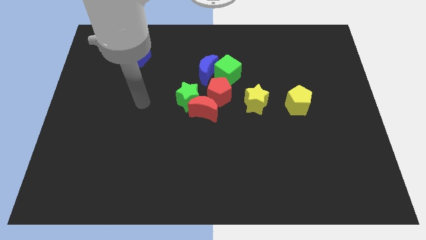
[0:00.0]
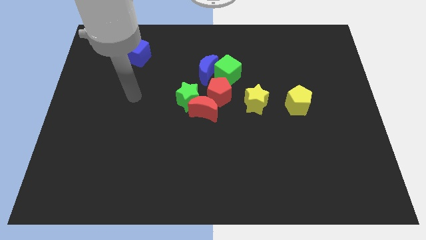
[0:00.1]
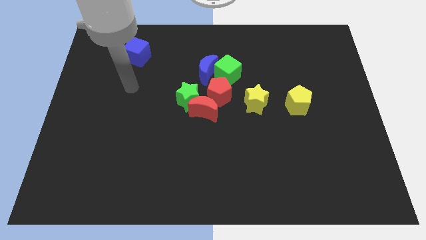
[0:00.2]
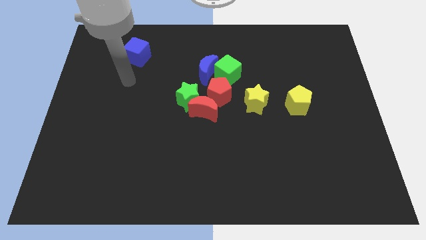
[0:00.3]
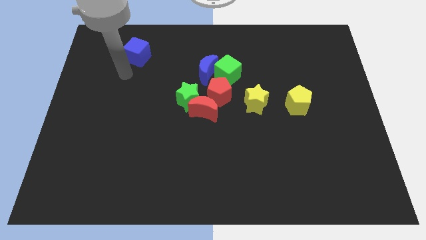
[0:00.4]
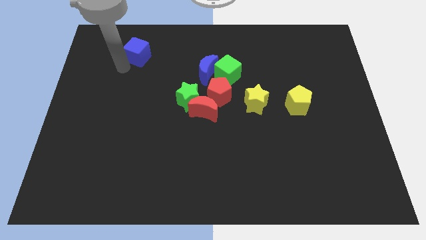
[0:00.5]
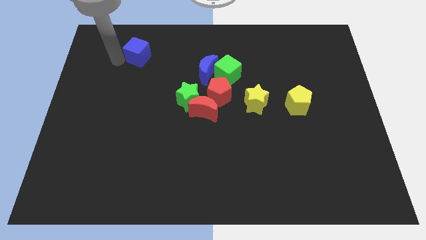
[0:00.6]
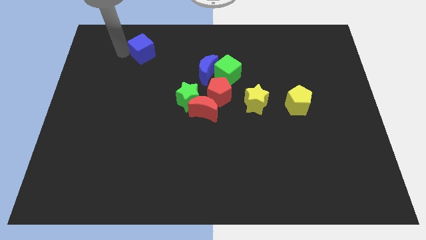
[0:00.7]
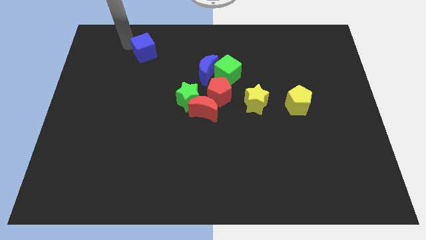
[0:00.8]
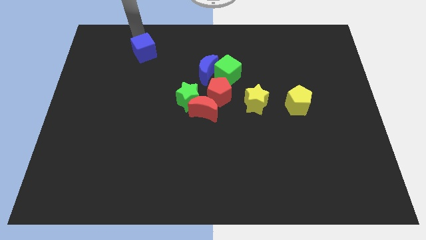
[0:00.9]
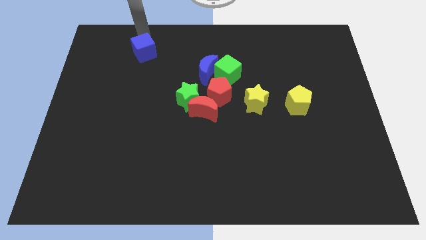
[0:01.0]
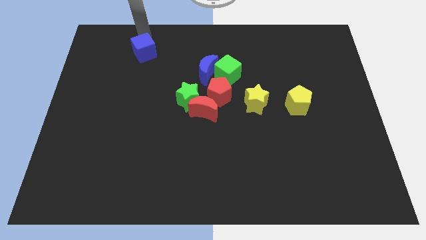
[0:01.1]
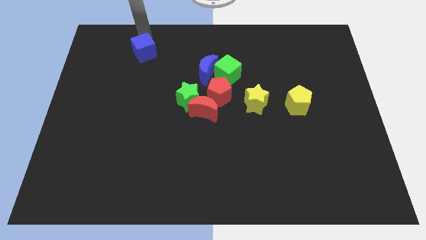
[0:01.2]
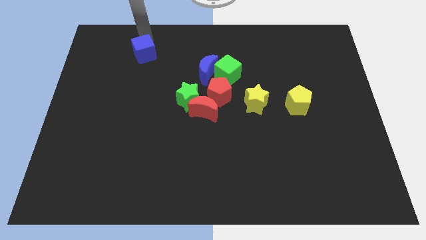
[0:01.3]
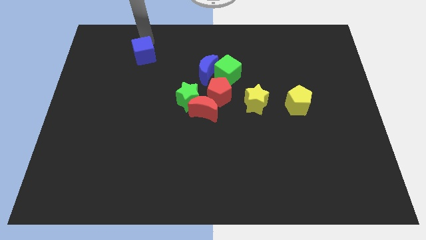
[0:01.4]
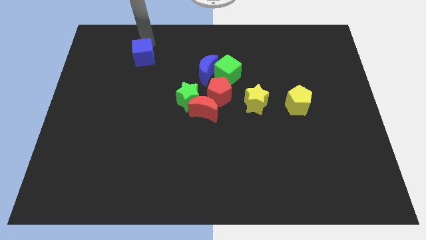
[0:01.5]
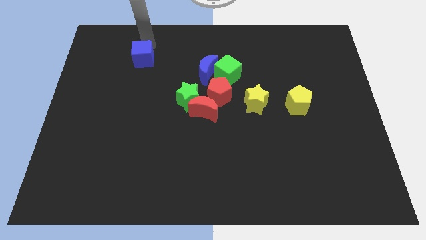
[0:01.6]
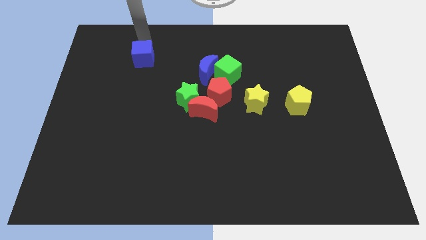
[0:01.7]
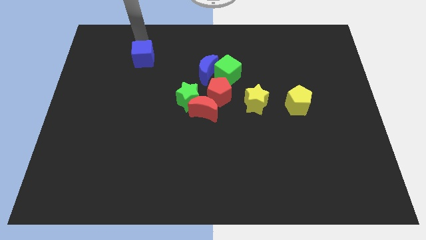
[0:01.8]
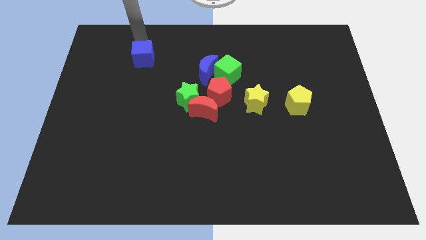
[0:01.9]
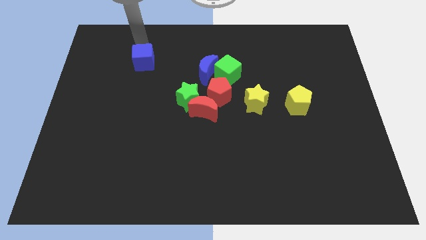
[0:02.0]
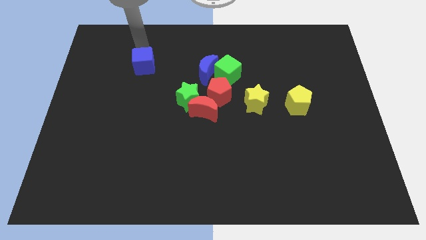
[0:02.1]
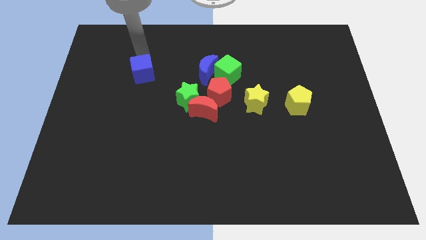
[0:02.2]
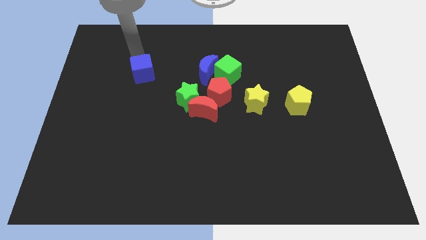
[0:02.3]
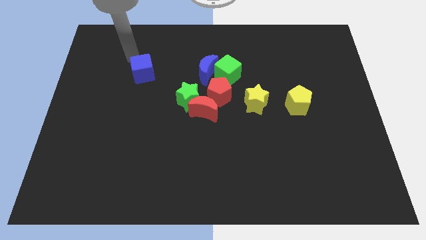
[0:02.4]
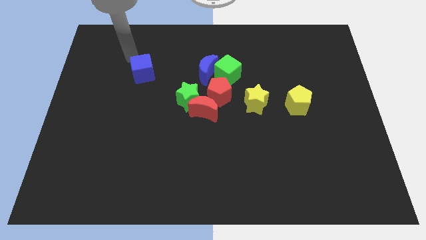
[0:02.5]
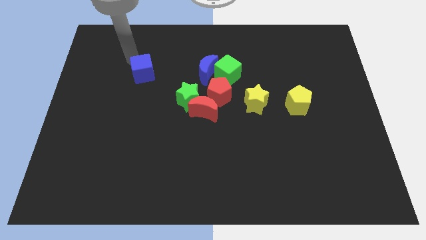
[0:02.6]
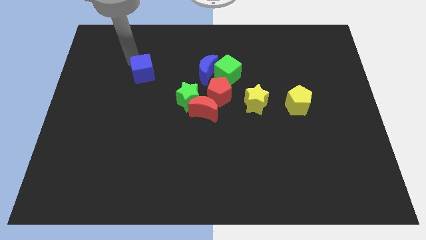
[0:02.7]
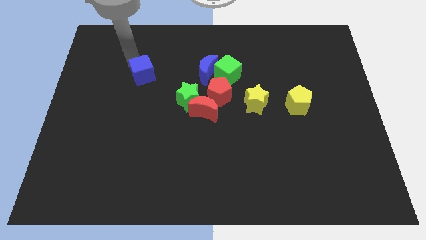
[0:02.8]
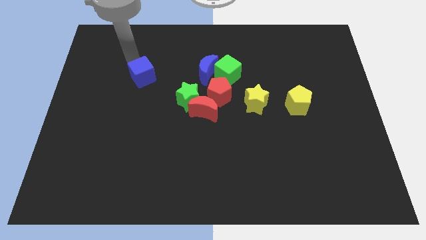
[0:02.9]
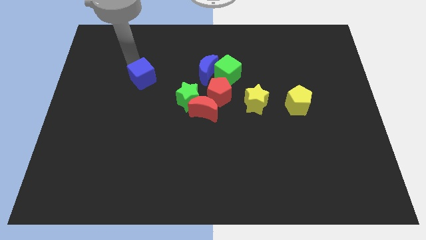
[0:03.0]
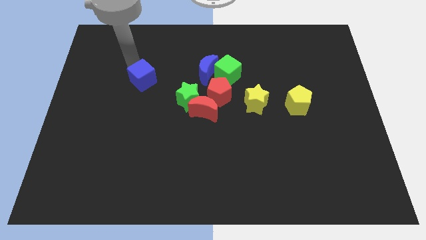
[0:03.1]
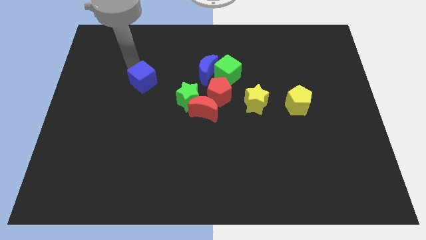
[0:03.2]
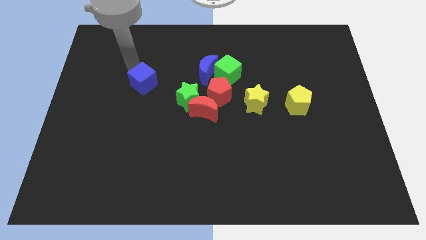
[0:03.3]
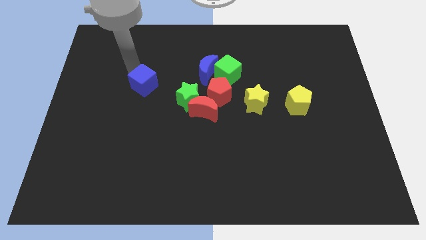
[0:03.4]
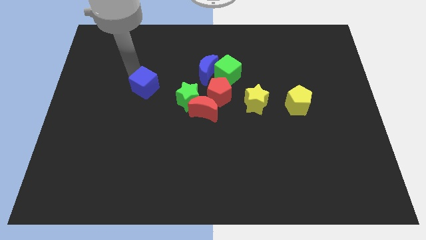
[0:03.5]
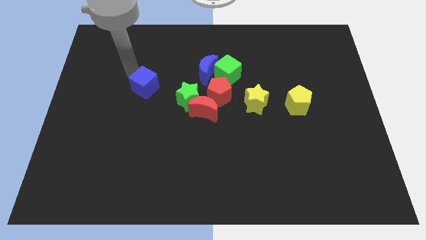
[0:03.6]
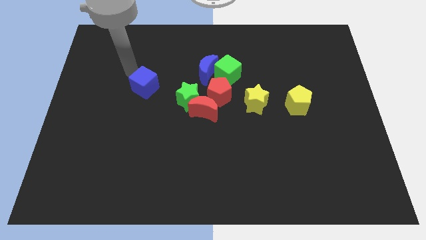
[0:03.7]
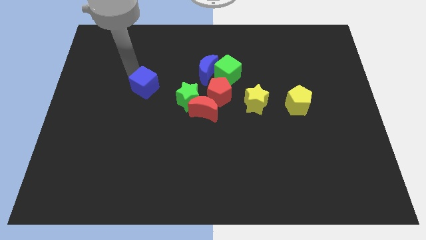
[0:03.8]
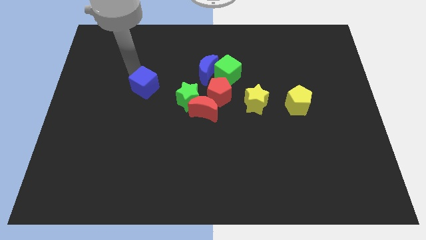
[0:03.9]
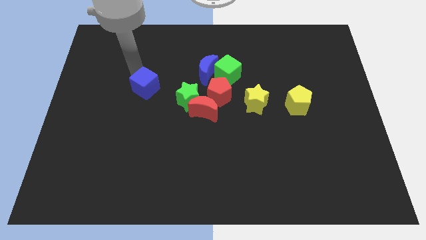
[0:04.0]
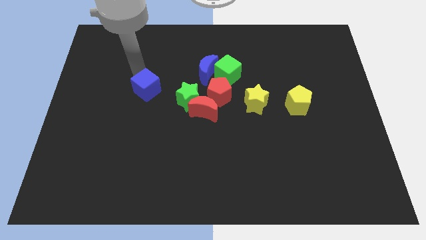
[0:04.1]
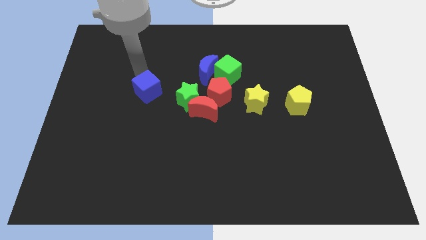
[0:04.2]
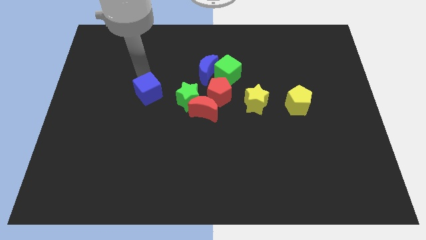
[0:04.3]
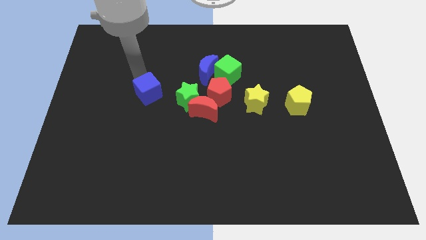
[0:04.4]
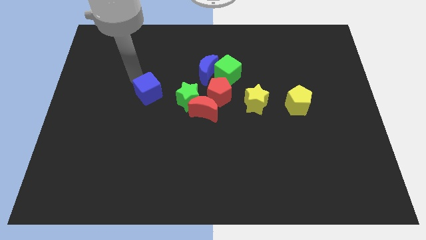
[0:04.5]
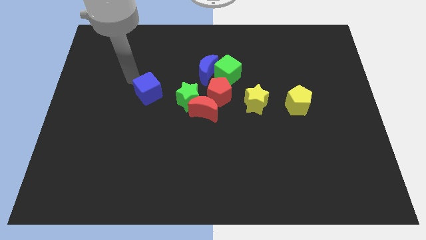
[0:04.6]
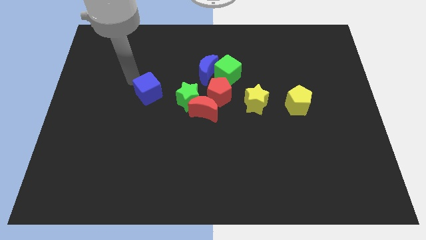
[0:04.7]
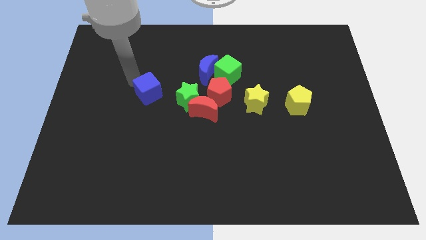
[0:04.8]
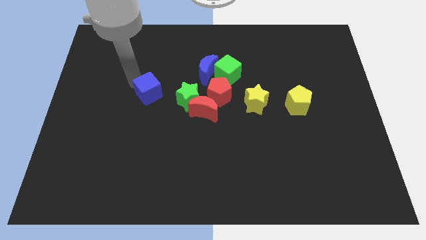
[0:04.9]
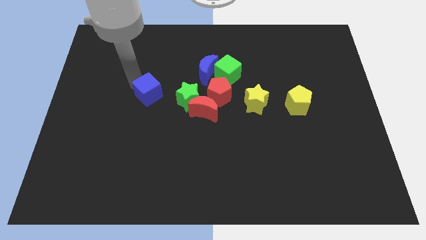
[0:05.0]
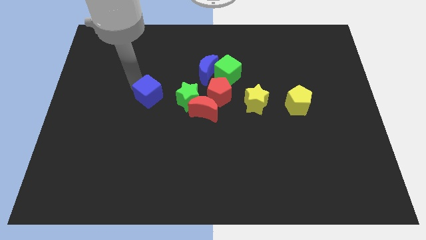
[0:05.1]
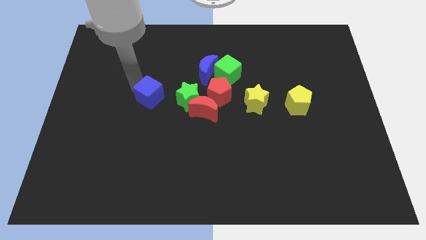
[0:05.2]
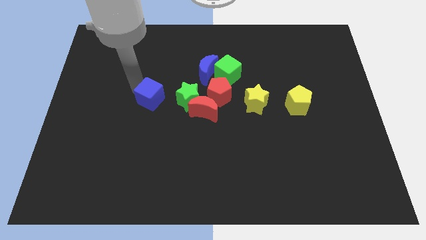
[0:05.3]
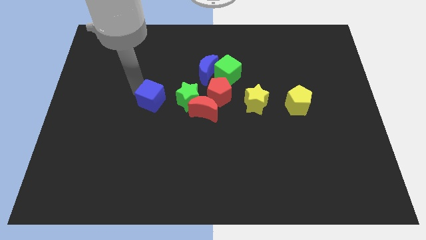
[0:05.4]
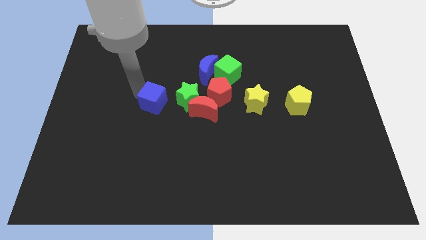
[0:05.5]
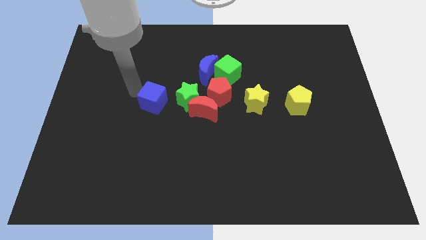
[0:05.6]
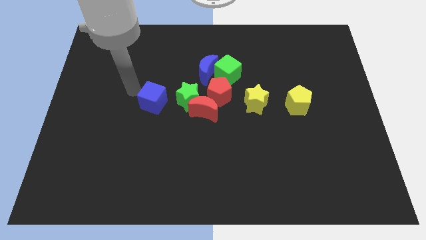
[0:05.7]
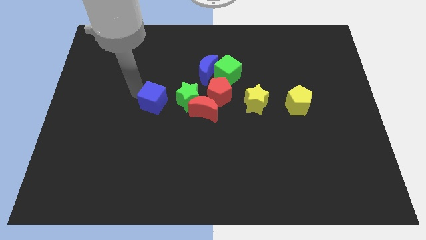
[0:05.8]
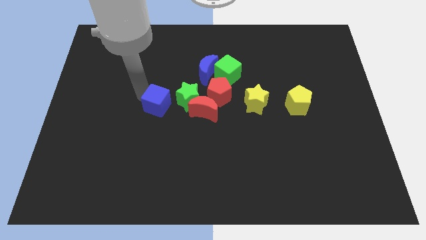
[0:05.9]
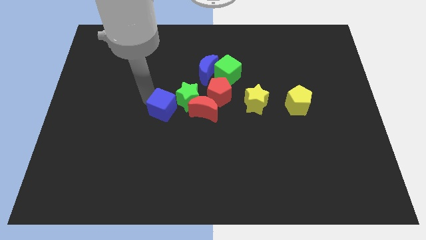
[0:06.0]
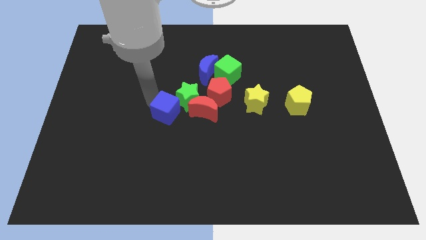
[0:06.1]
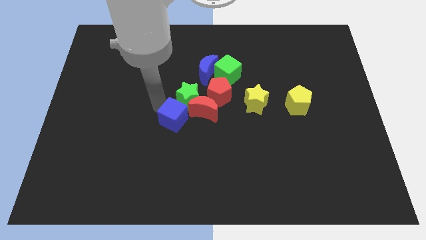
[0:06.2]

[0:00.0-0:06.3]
move the blue cube down and then to the right

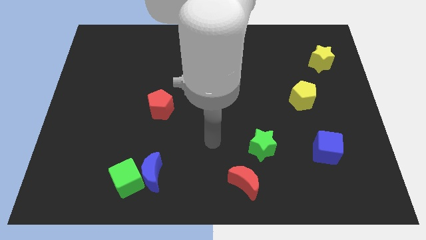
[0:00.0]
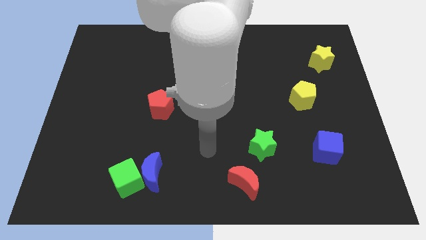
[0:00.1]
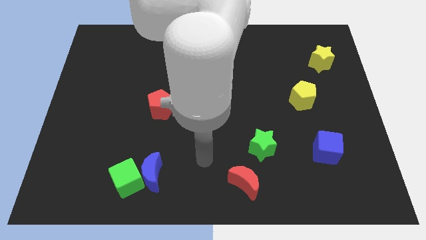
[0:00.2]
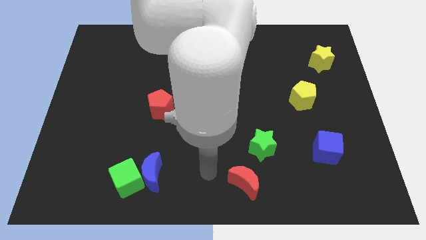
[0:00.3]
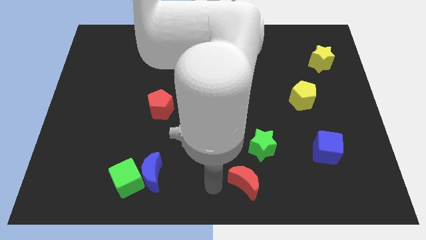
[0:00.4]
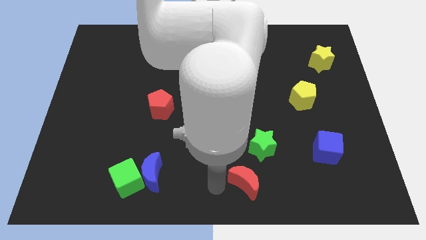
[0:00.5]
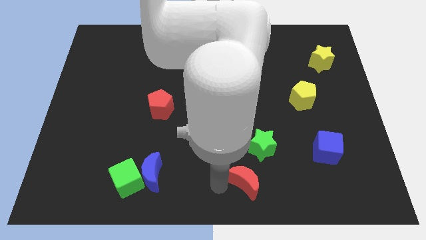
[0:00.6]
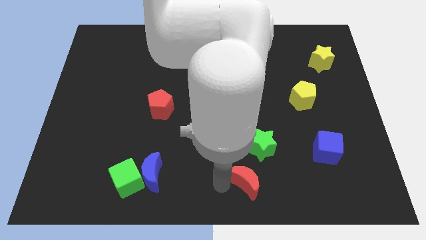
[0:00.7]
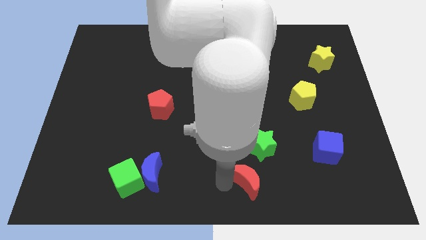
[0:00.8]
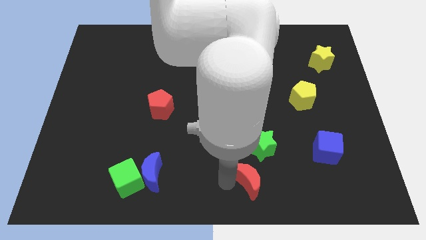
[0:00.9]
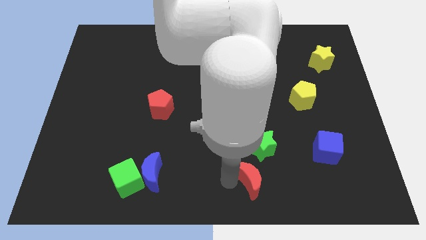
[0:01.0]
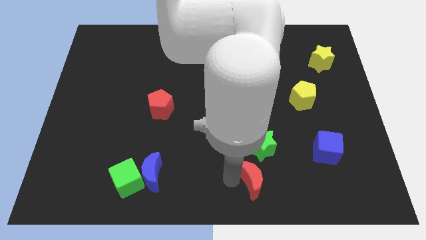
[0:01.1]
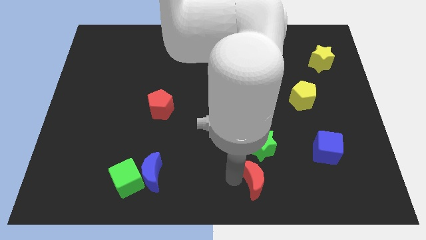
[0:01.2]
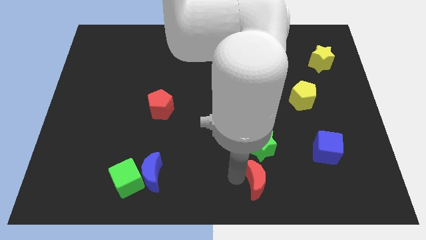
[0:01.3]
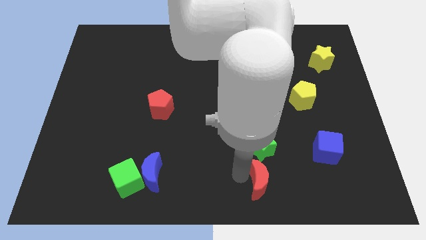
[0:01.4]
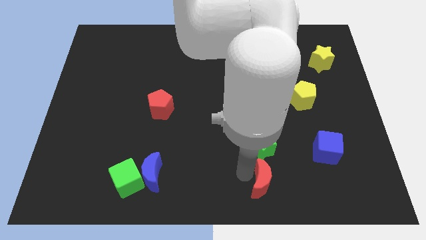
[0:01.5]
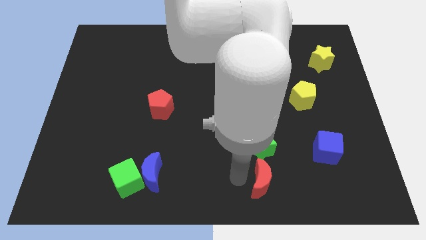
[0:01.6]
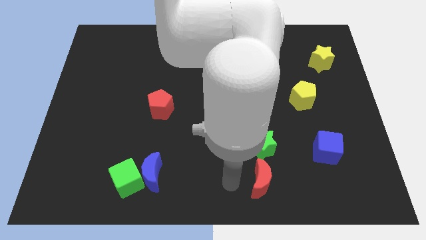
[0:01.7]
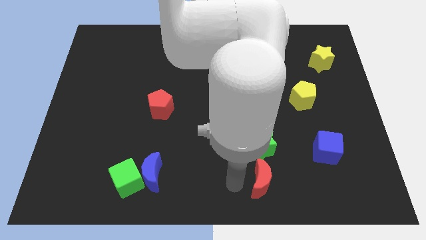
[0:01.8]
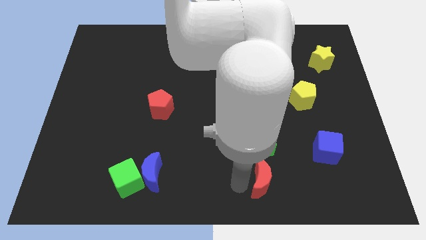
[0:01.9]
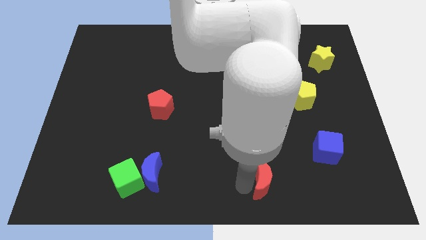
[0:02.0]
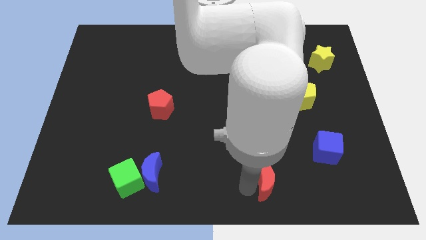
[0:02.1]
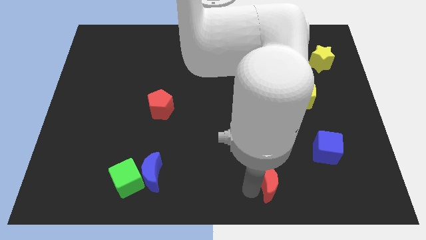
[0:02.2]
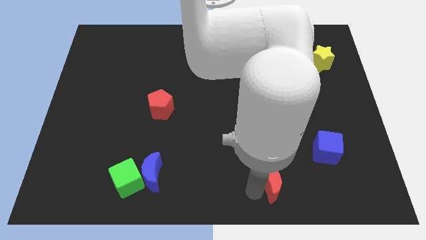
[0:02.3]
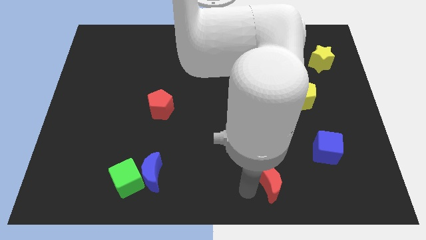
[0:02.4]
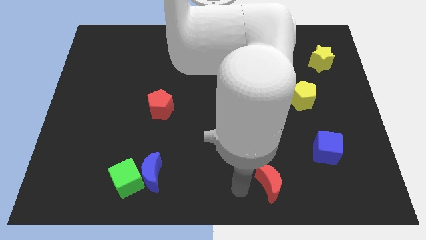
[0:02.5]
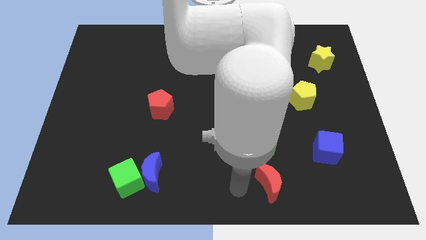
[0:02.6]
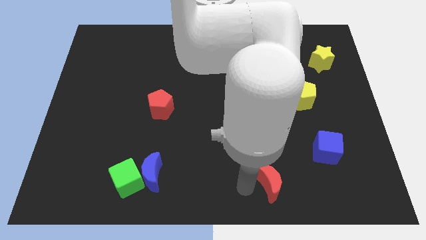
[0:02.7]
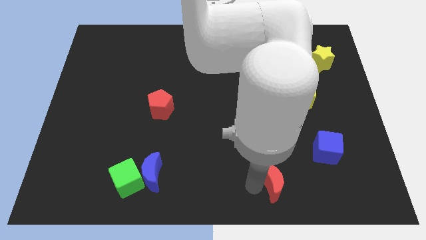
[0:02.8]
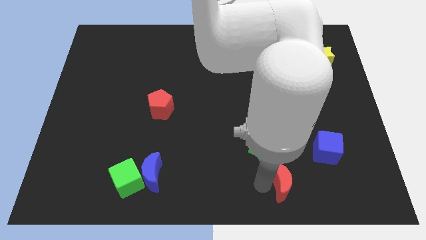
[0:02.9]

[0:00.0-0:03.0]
push the red moon a little bit to the right
